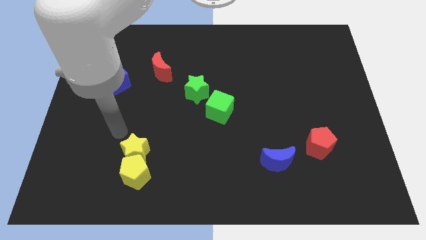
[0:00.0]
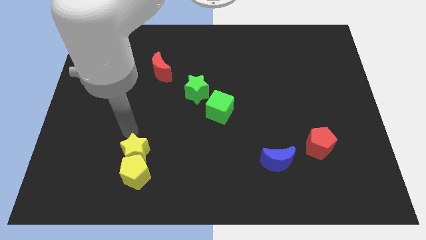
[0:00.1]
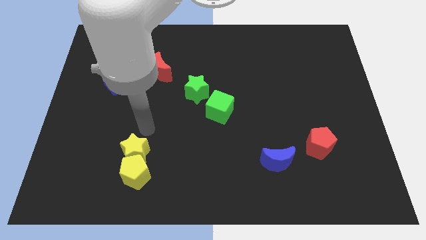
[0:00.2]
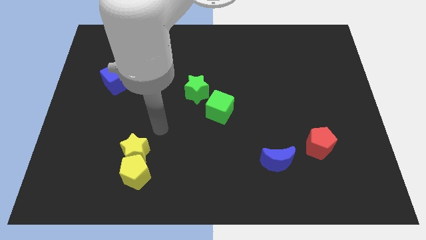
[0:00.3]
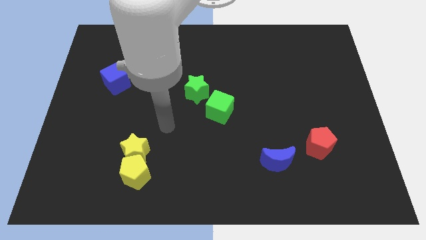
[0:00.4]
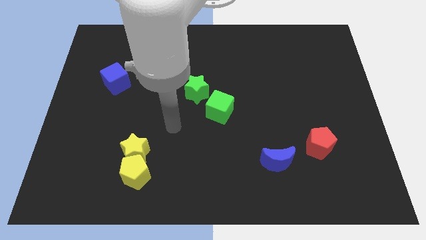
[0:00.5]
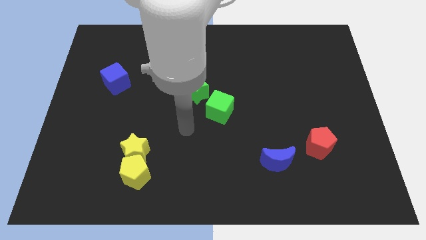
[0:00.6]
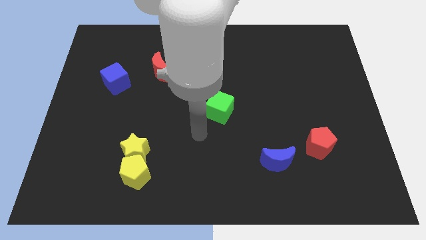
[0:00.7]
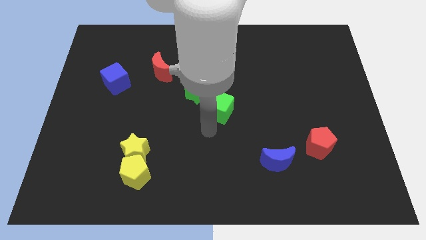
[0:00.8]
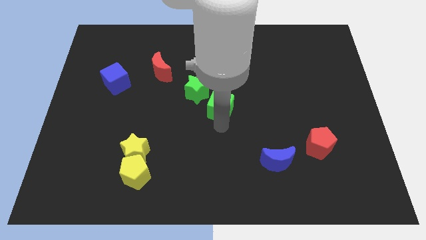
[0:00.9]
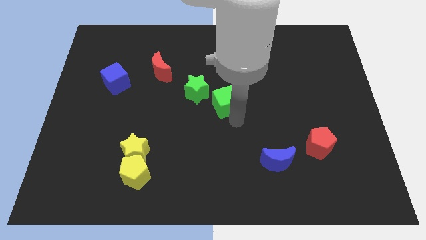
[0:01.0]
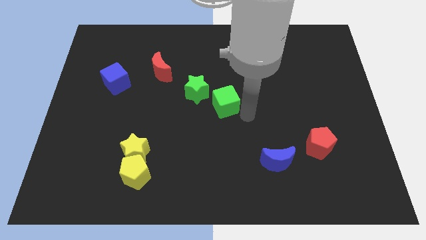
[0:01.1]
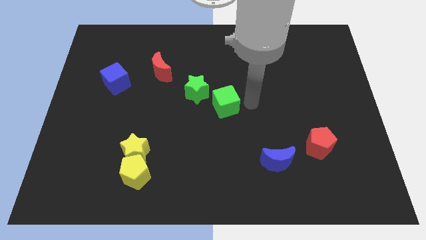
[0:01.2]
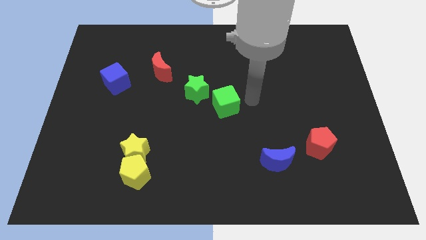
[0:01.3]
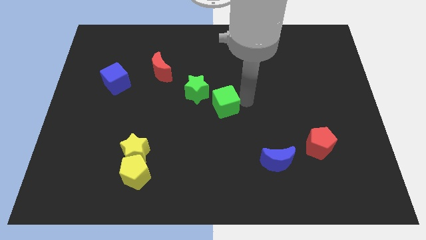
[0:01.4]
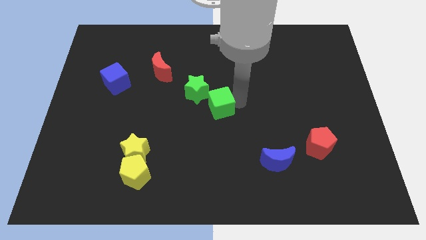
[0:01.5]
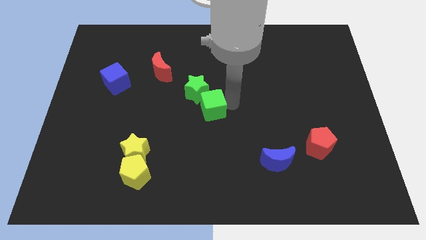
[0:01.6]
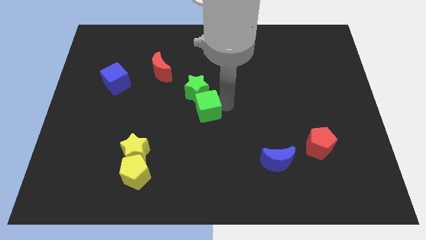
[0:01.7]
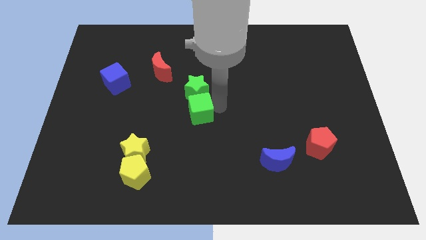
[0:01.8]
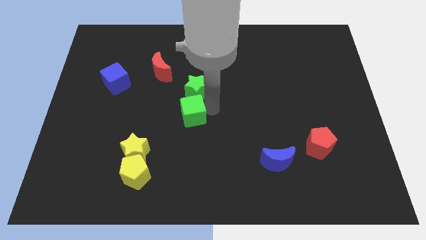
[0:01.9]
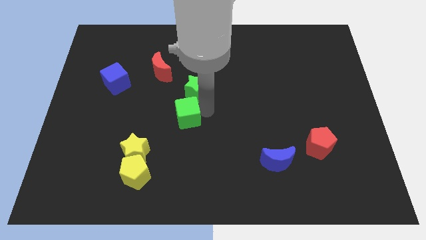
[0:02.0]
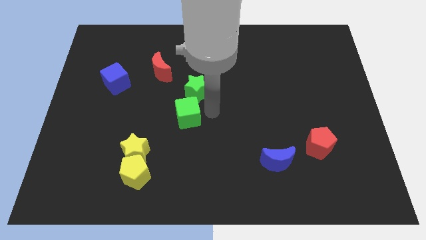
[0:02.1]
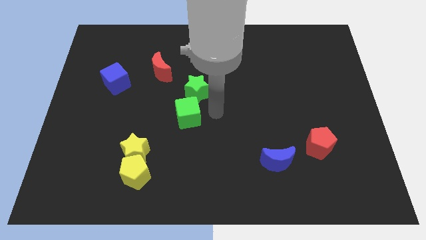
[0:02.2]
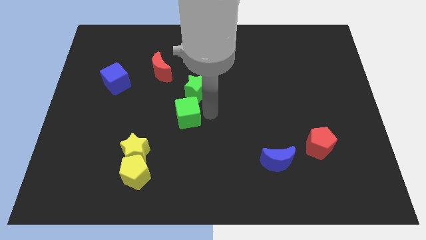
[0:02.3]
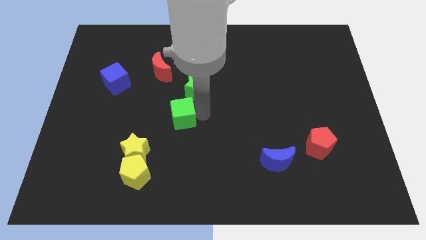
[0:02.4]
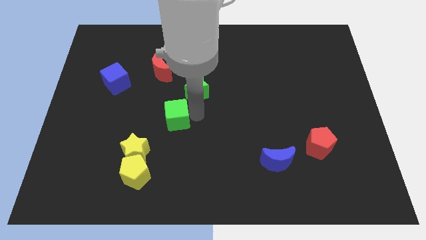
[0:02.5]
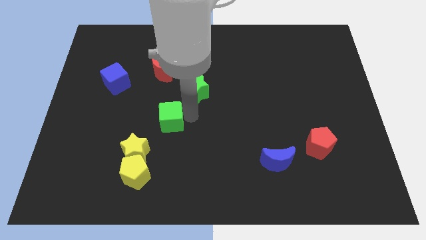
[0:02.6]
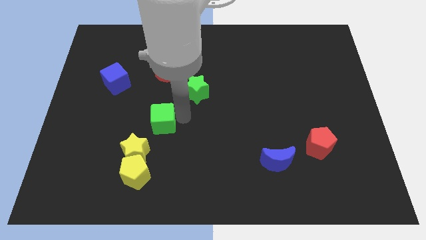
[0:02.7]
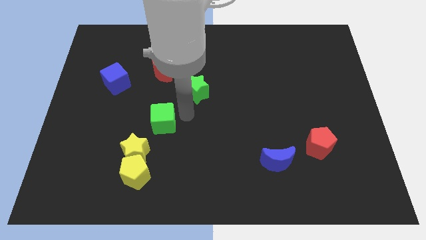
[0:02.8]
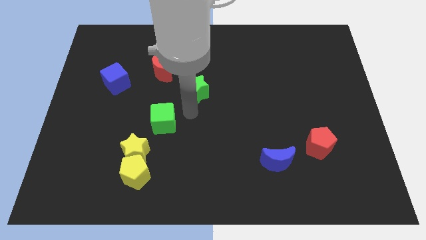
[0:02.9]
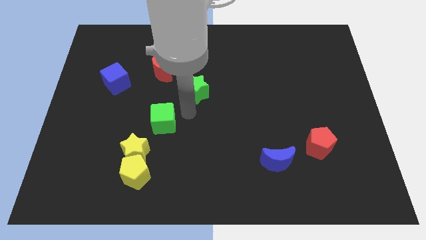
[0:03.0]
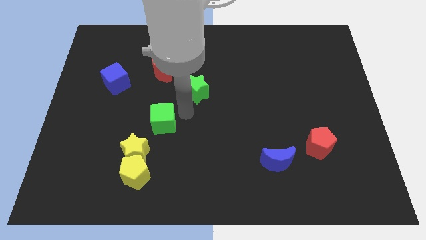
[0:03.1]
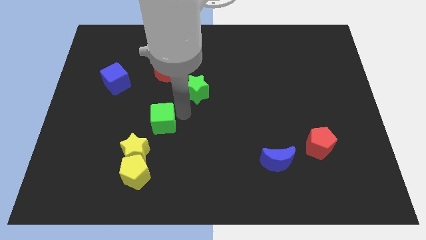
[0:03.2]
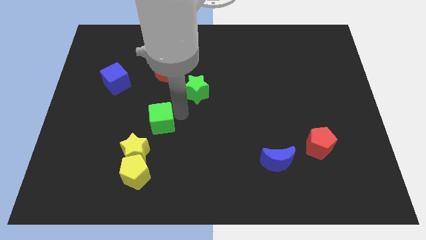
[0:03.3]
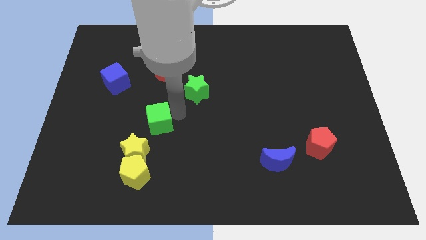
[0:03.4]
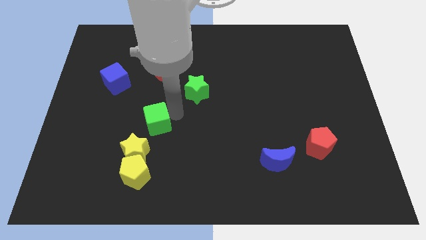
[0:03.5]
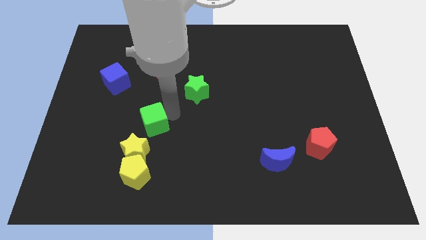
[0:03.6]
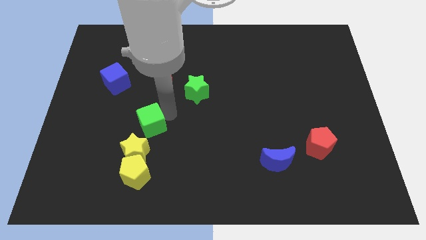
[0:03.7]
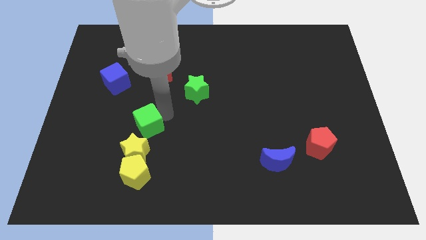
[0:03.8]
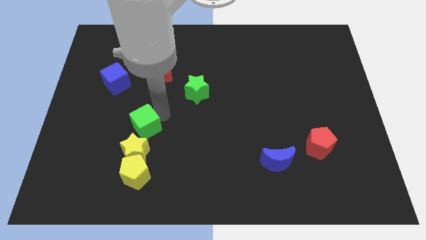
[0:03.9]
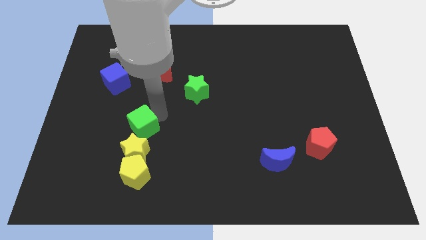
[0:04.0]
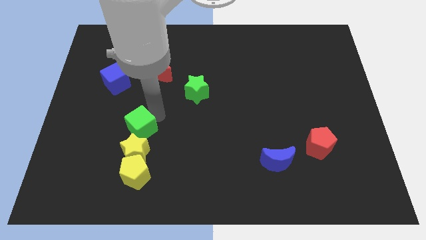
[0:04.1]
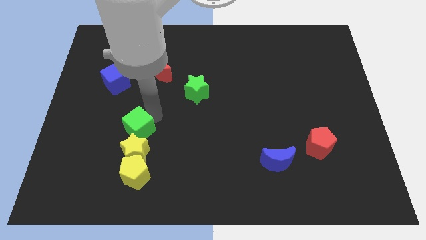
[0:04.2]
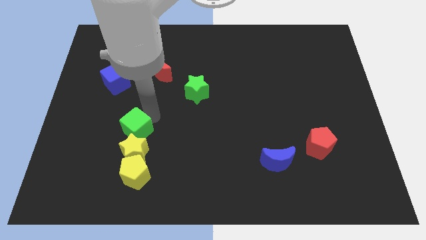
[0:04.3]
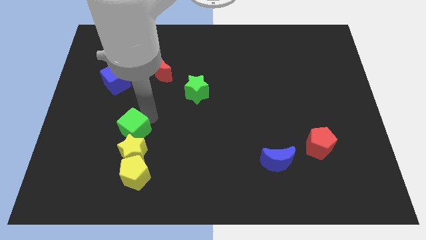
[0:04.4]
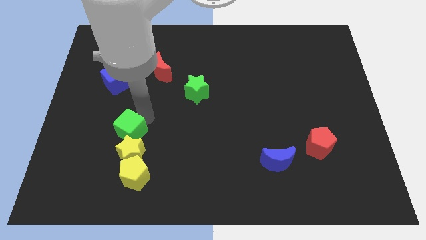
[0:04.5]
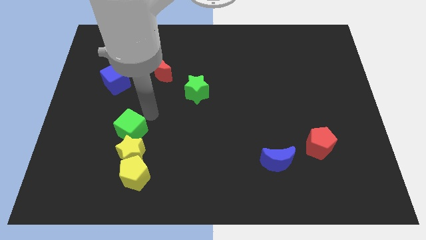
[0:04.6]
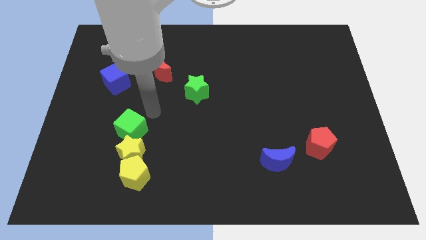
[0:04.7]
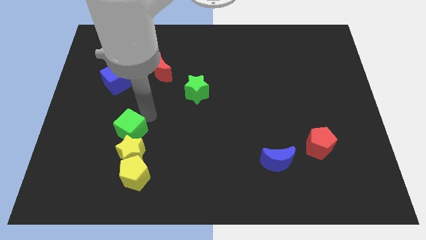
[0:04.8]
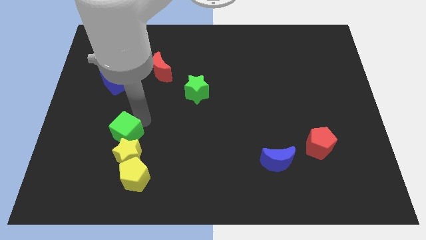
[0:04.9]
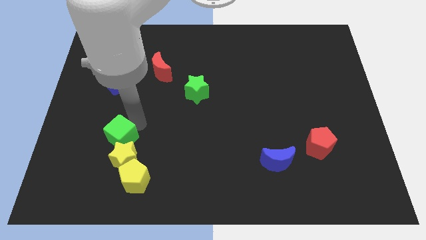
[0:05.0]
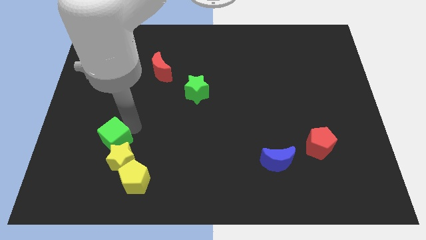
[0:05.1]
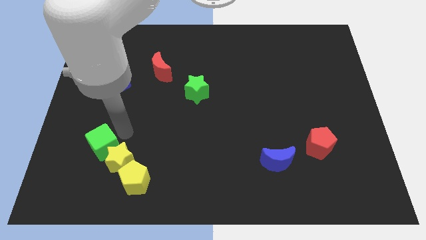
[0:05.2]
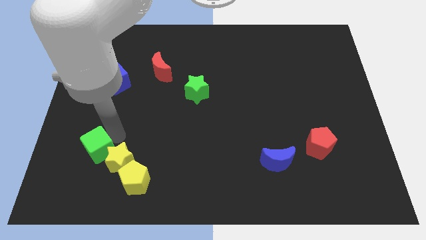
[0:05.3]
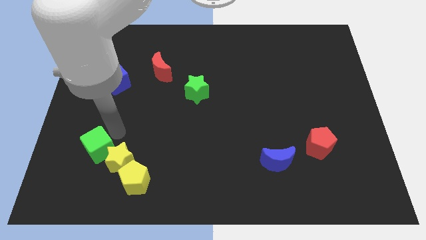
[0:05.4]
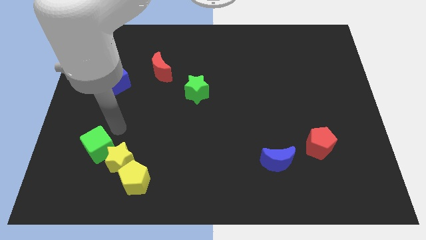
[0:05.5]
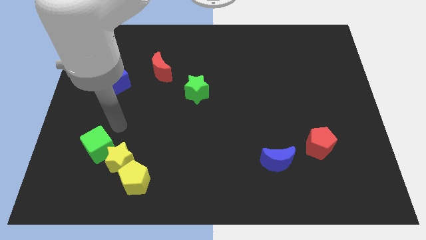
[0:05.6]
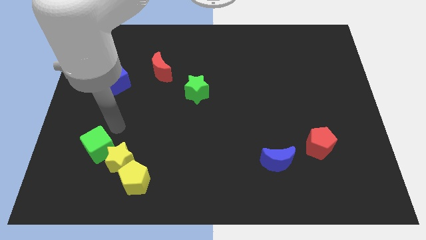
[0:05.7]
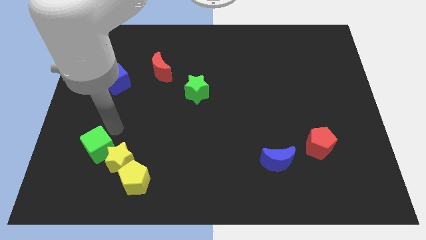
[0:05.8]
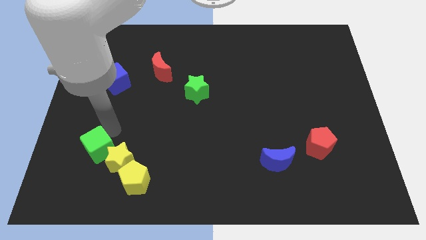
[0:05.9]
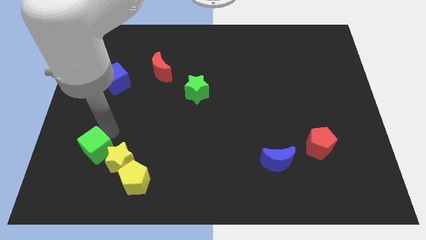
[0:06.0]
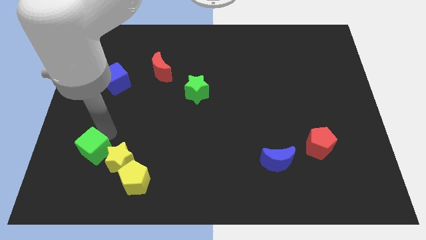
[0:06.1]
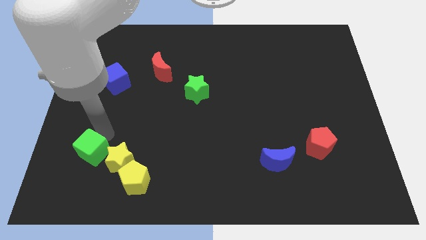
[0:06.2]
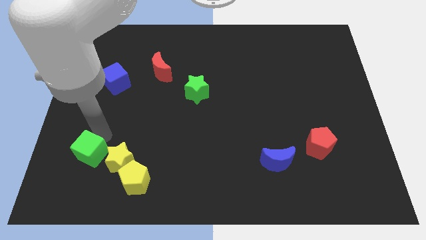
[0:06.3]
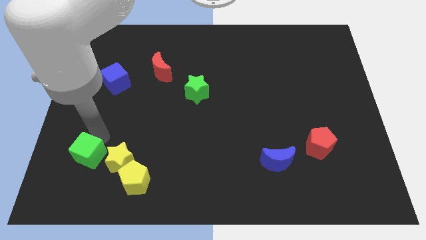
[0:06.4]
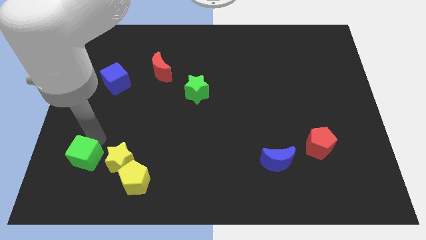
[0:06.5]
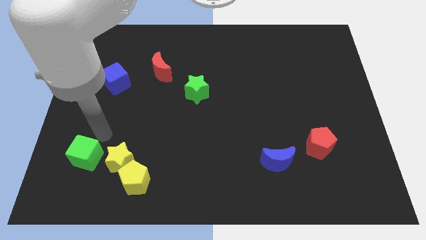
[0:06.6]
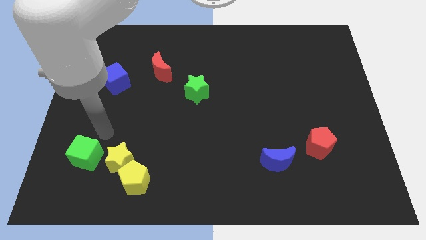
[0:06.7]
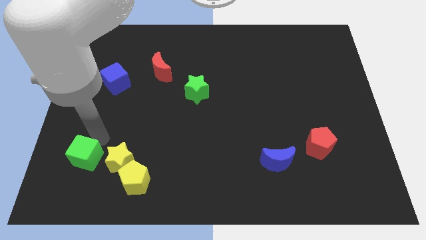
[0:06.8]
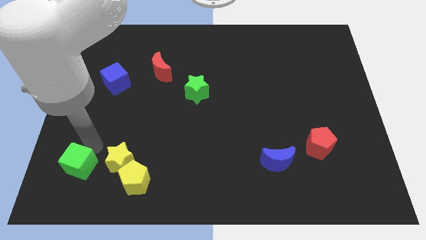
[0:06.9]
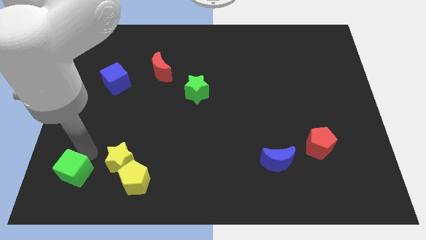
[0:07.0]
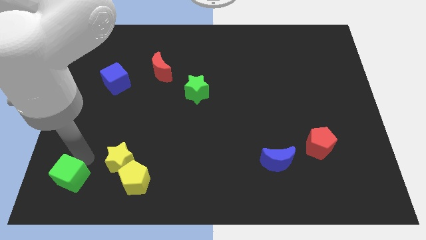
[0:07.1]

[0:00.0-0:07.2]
move the green cube to the lower left corner

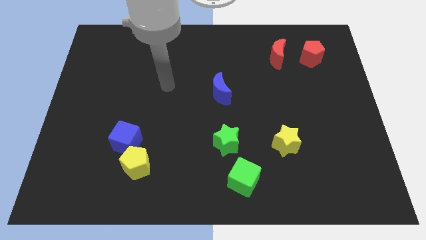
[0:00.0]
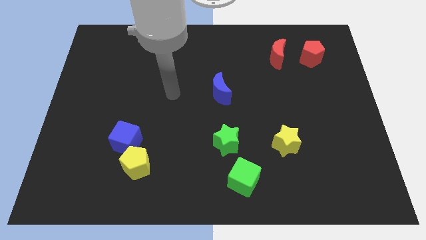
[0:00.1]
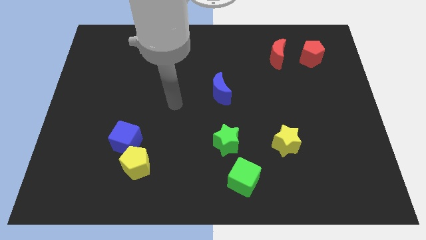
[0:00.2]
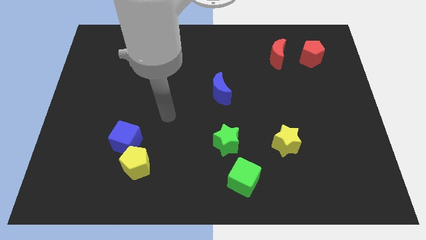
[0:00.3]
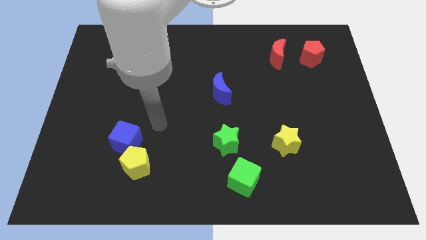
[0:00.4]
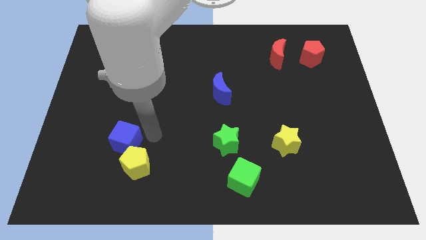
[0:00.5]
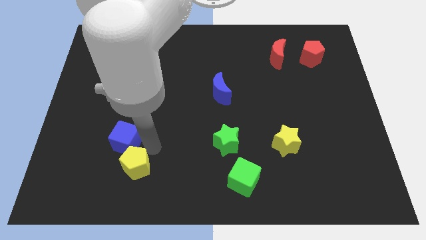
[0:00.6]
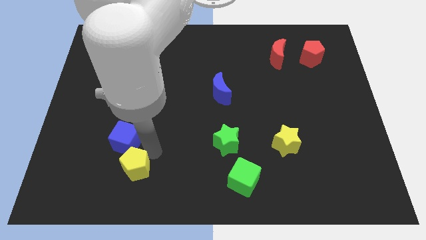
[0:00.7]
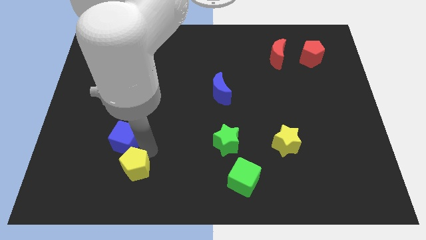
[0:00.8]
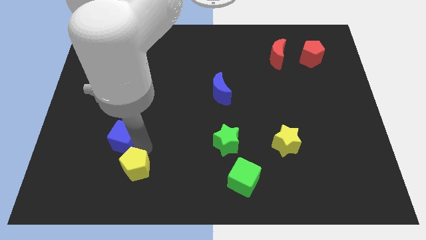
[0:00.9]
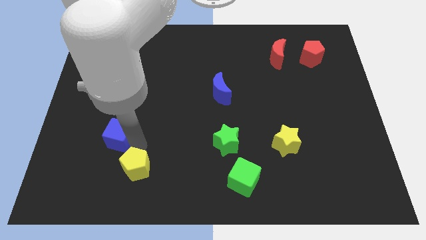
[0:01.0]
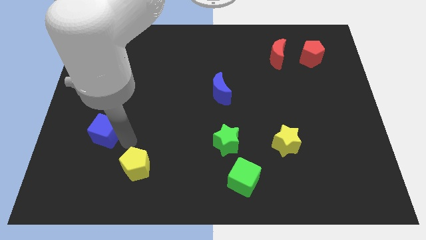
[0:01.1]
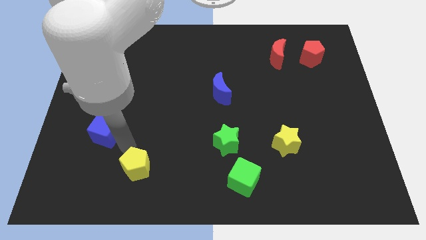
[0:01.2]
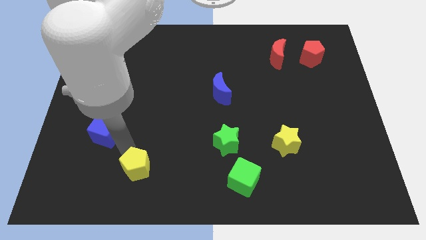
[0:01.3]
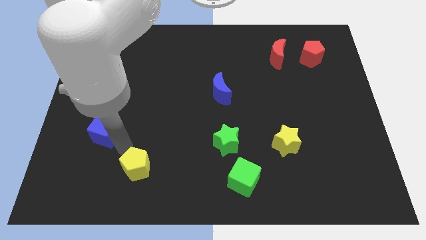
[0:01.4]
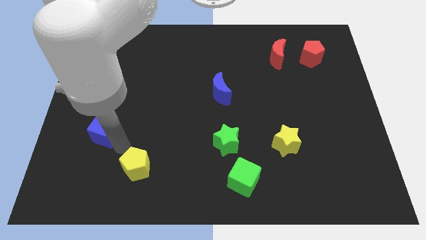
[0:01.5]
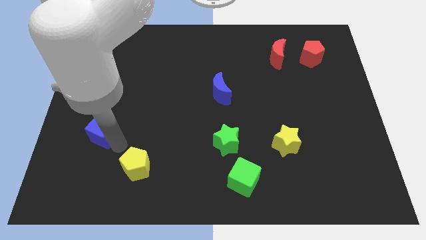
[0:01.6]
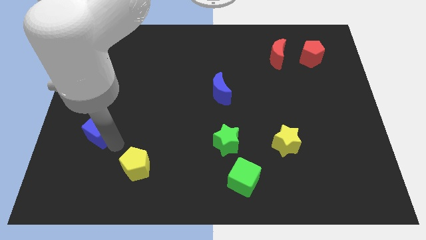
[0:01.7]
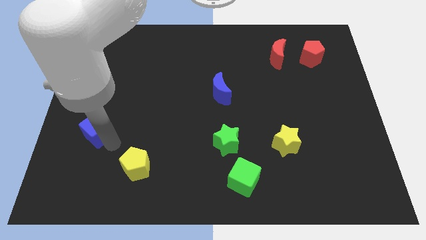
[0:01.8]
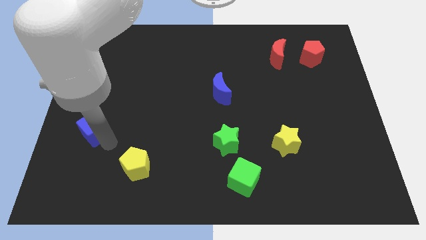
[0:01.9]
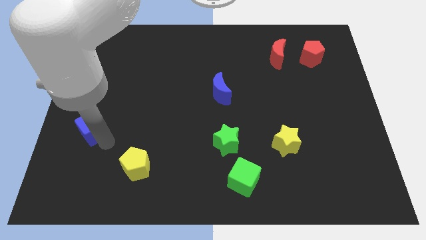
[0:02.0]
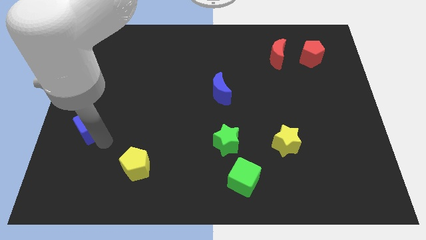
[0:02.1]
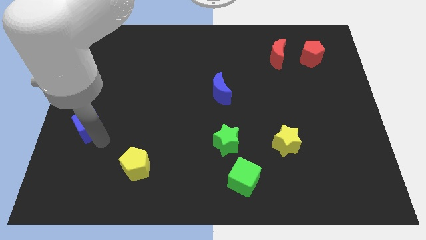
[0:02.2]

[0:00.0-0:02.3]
put the blue cube to the center left
